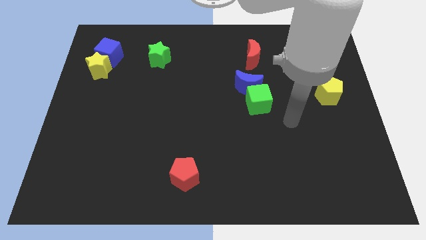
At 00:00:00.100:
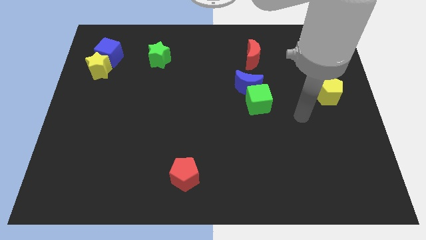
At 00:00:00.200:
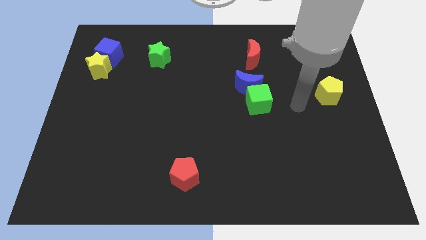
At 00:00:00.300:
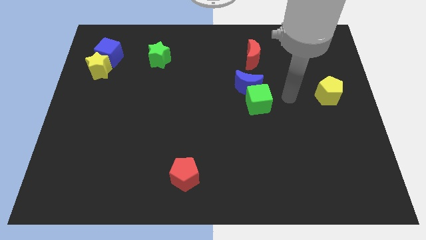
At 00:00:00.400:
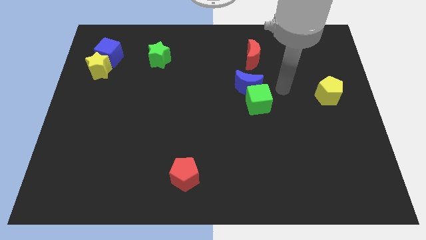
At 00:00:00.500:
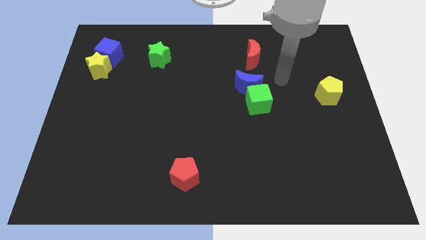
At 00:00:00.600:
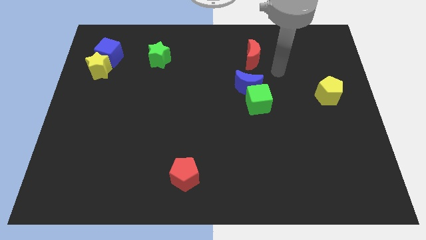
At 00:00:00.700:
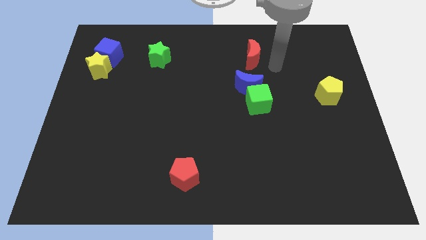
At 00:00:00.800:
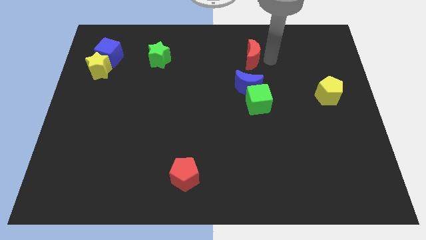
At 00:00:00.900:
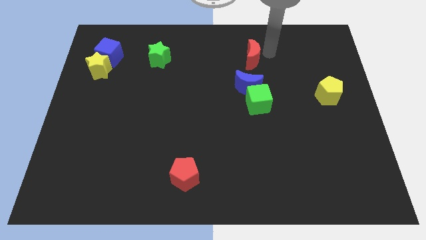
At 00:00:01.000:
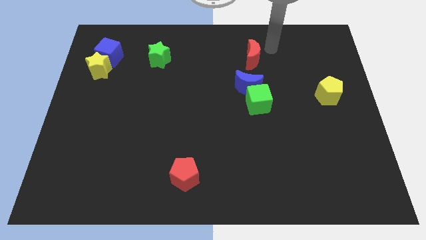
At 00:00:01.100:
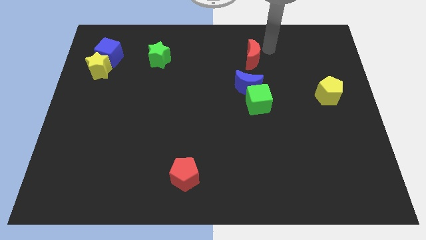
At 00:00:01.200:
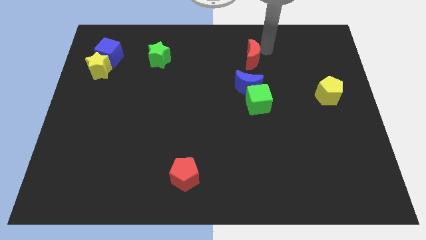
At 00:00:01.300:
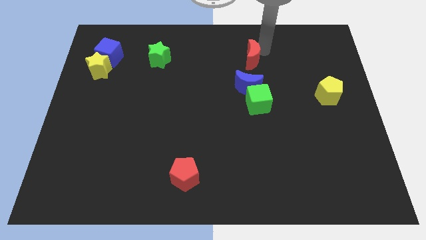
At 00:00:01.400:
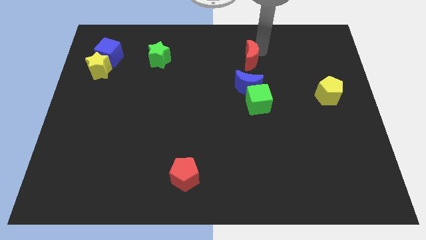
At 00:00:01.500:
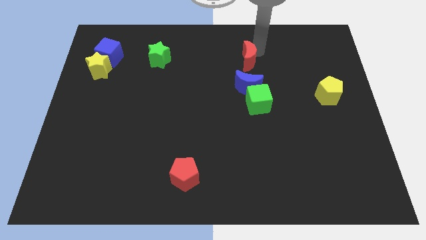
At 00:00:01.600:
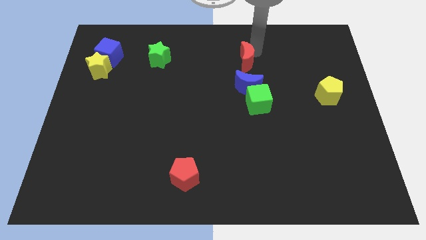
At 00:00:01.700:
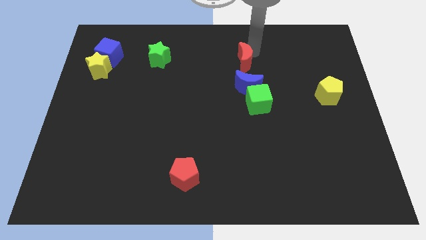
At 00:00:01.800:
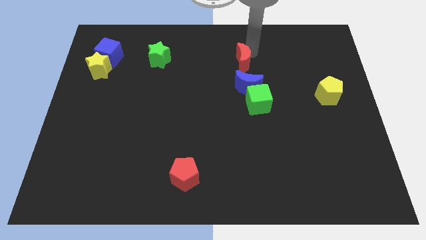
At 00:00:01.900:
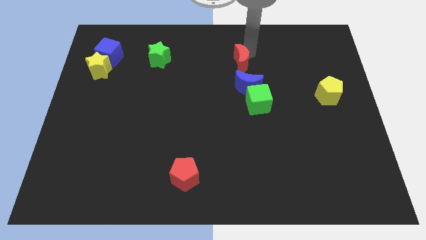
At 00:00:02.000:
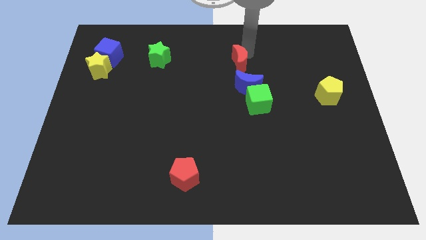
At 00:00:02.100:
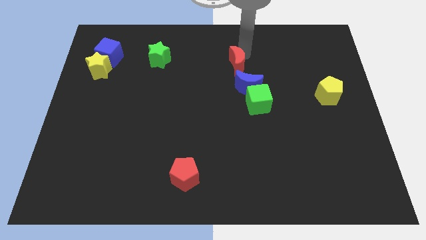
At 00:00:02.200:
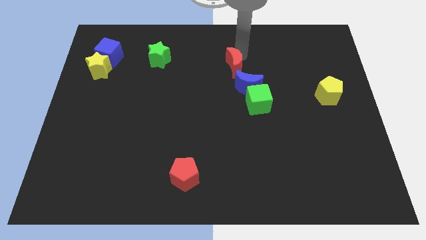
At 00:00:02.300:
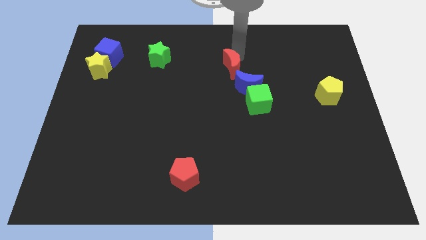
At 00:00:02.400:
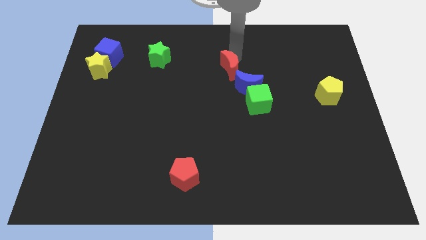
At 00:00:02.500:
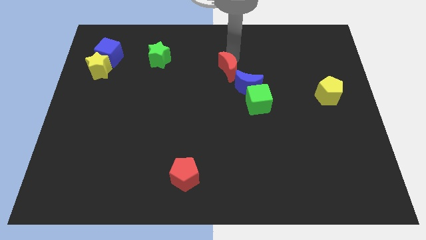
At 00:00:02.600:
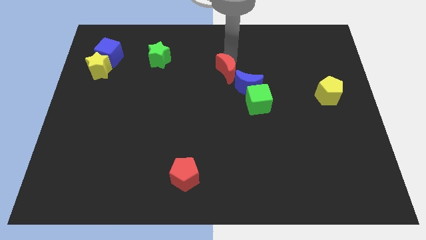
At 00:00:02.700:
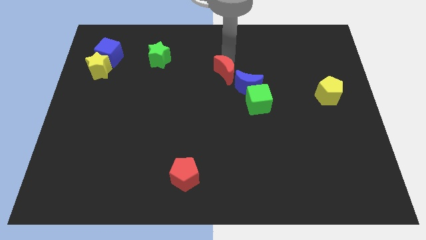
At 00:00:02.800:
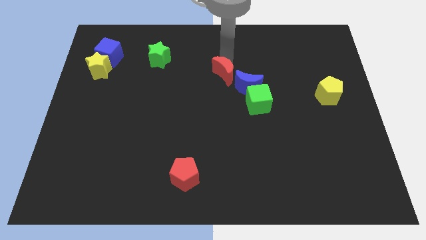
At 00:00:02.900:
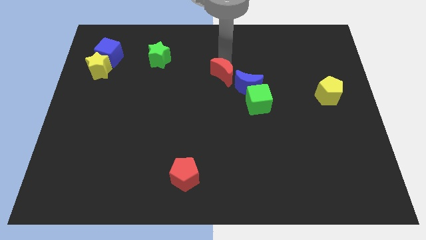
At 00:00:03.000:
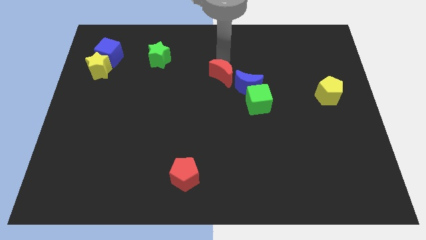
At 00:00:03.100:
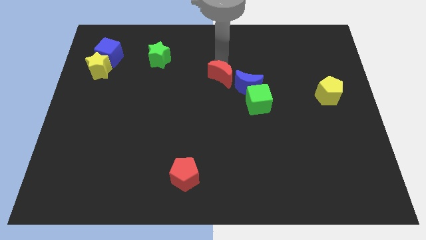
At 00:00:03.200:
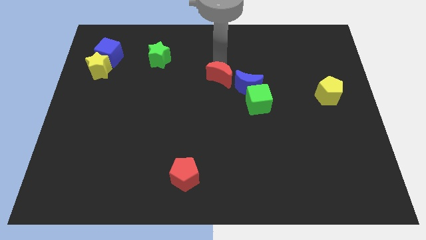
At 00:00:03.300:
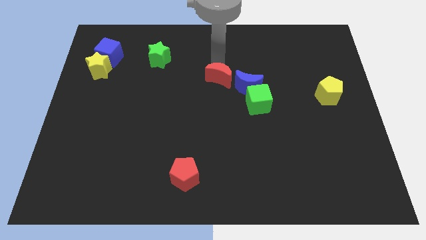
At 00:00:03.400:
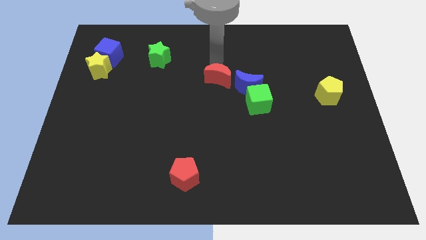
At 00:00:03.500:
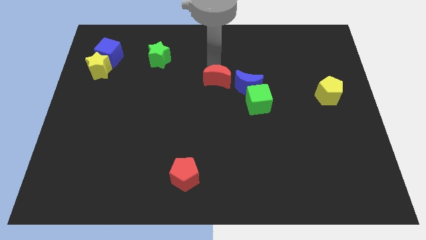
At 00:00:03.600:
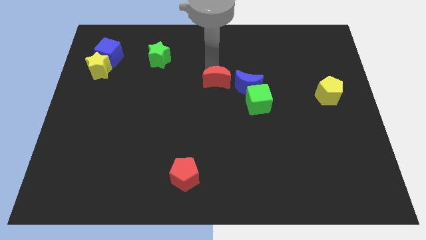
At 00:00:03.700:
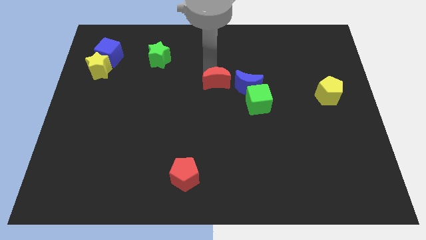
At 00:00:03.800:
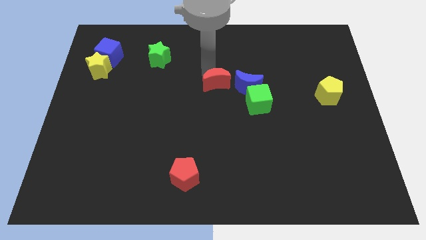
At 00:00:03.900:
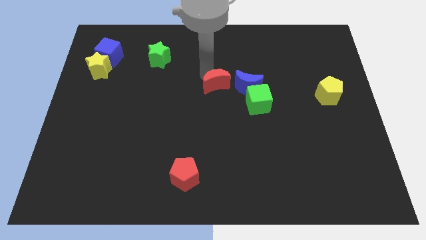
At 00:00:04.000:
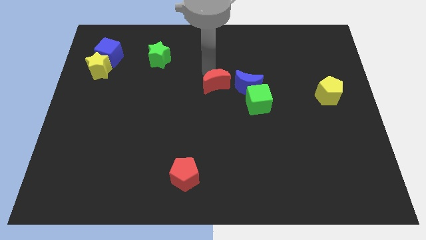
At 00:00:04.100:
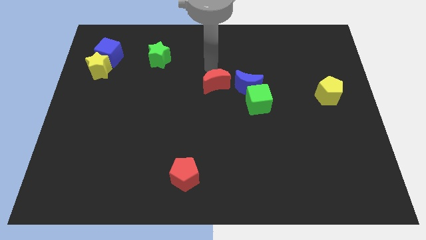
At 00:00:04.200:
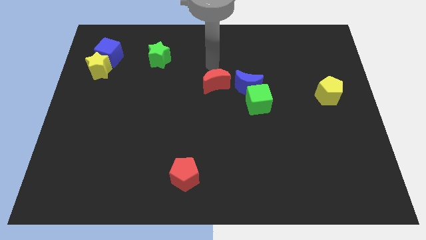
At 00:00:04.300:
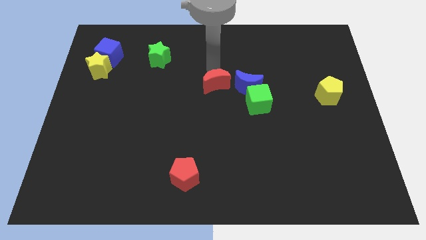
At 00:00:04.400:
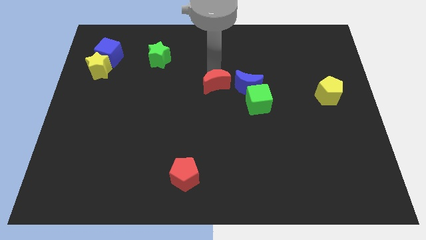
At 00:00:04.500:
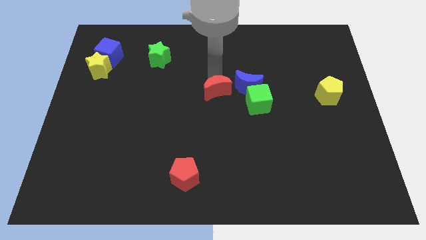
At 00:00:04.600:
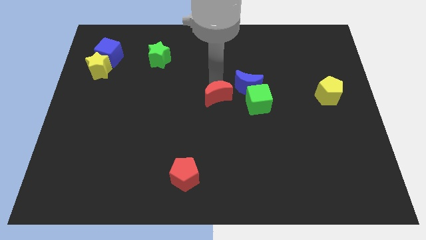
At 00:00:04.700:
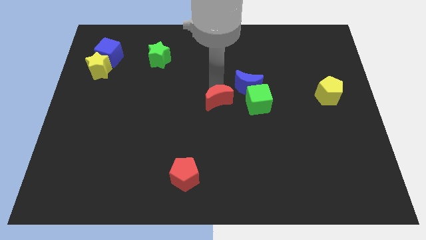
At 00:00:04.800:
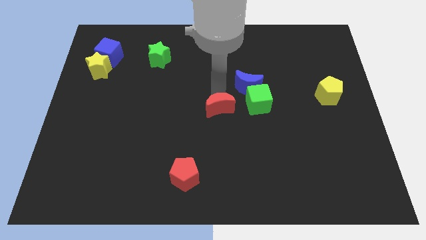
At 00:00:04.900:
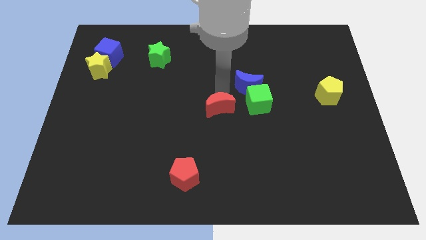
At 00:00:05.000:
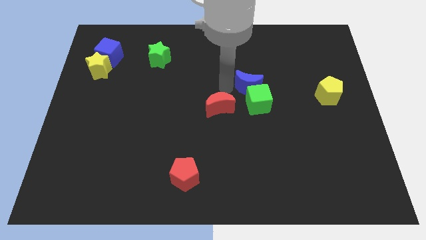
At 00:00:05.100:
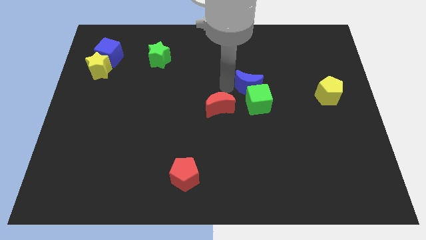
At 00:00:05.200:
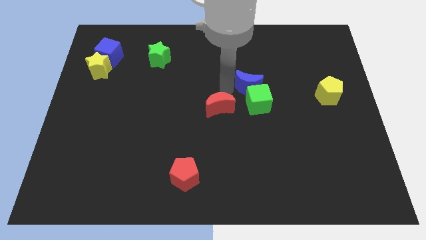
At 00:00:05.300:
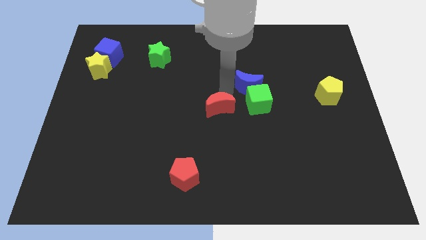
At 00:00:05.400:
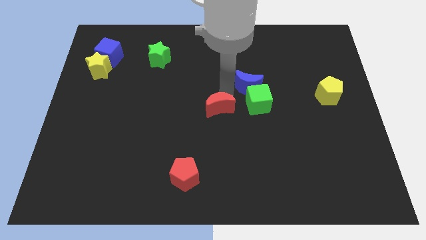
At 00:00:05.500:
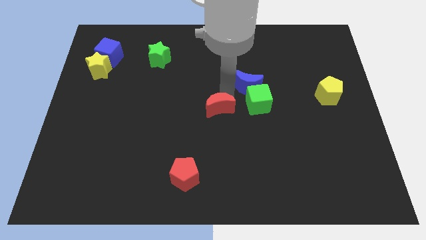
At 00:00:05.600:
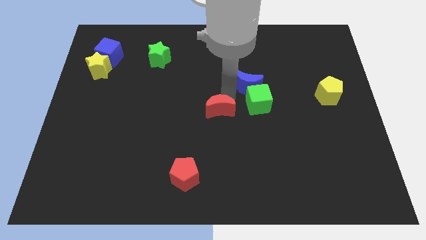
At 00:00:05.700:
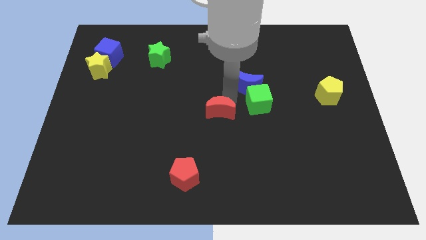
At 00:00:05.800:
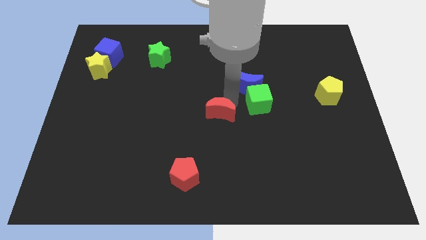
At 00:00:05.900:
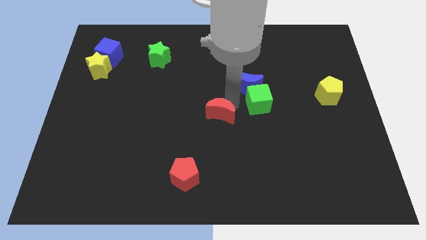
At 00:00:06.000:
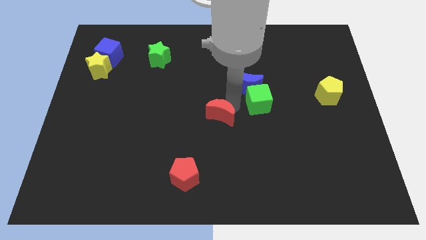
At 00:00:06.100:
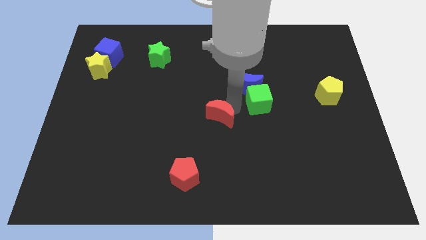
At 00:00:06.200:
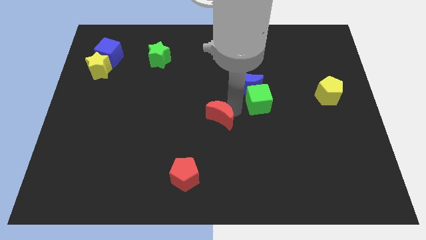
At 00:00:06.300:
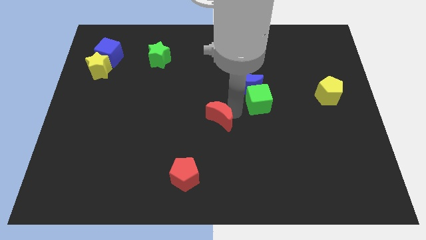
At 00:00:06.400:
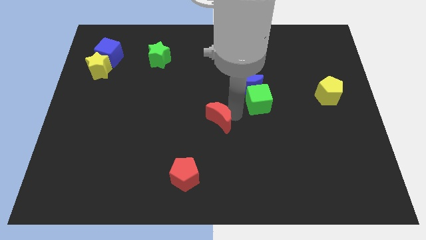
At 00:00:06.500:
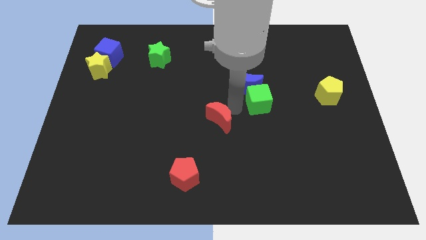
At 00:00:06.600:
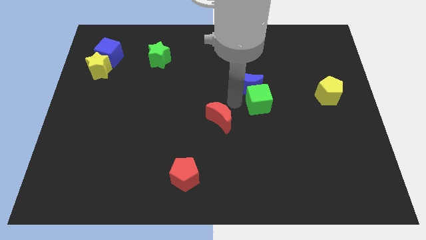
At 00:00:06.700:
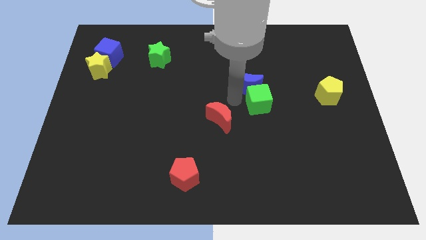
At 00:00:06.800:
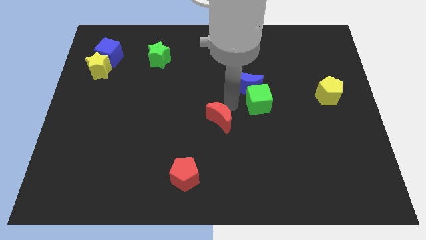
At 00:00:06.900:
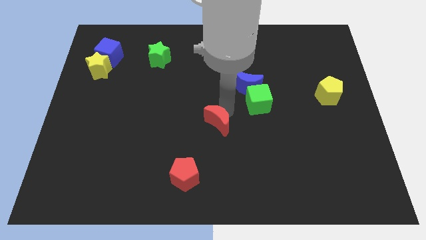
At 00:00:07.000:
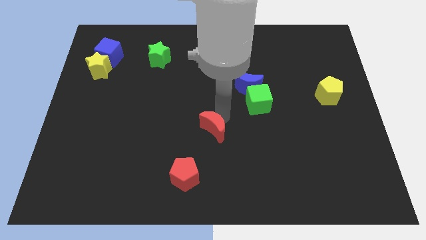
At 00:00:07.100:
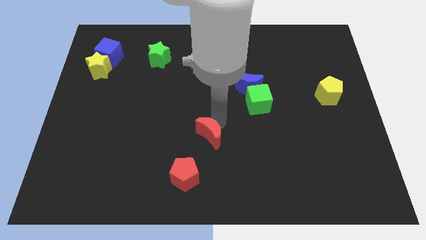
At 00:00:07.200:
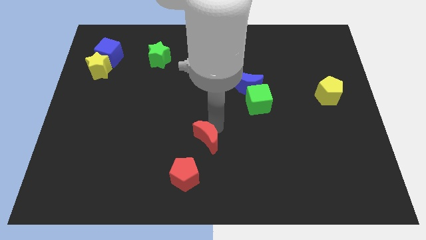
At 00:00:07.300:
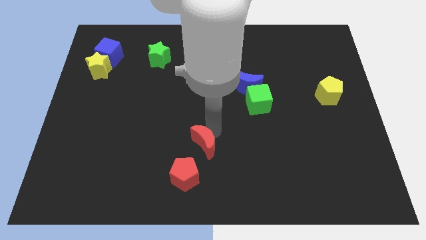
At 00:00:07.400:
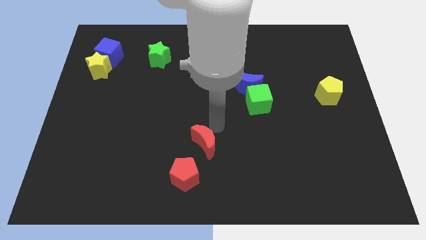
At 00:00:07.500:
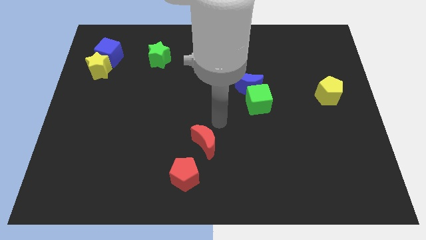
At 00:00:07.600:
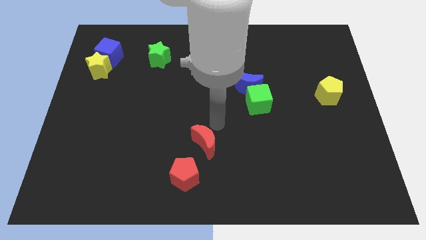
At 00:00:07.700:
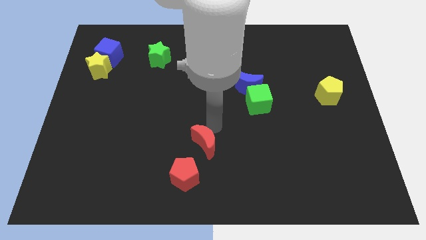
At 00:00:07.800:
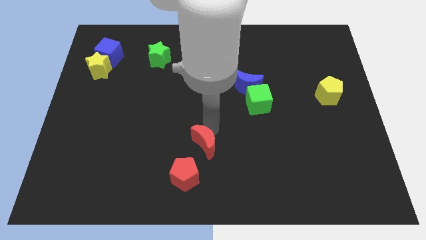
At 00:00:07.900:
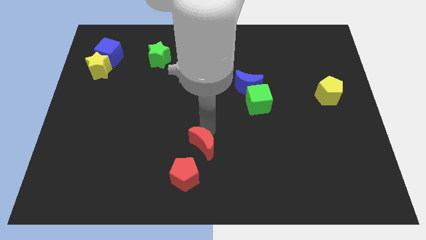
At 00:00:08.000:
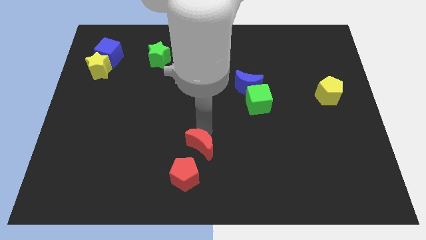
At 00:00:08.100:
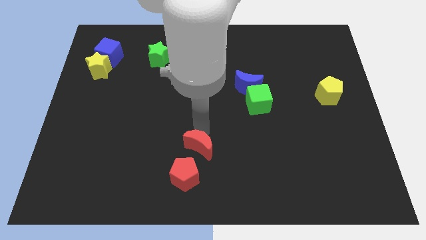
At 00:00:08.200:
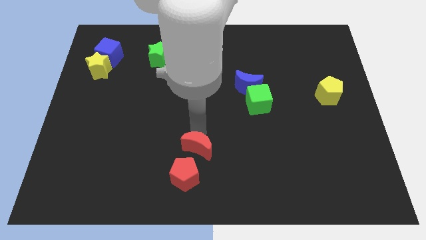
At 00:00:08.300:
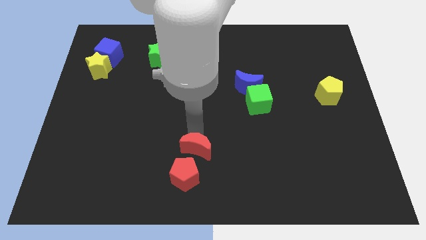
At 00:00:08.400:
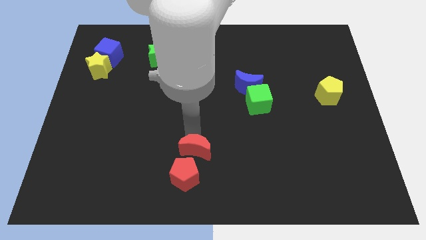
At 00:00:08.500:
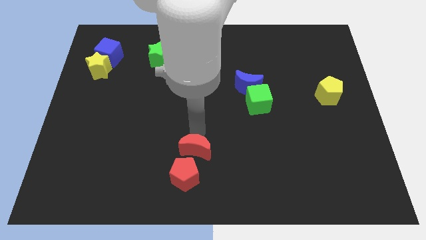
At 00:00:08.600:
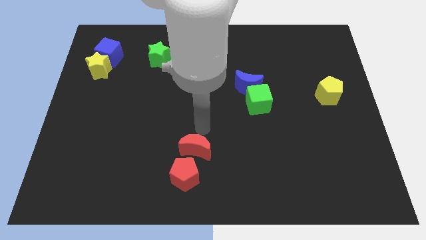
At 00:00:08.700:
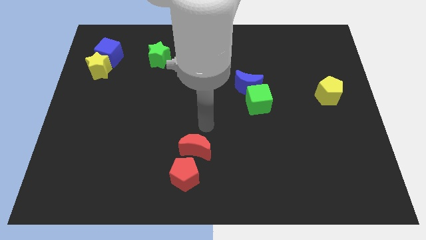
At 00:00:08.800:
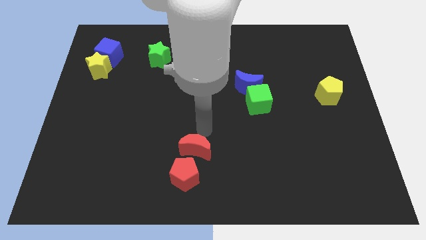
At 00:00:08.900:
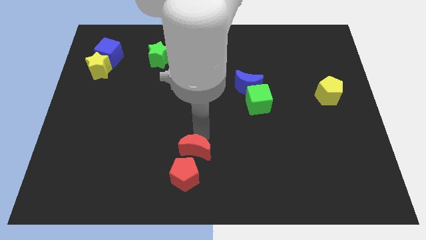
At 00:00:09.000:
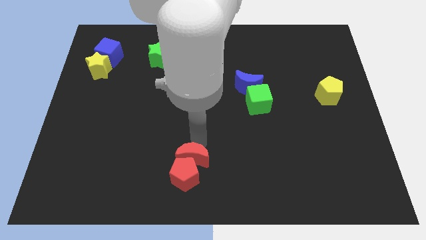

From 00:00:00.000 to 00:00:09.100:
push the red moon to the red pentagon
